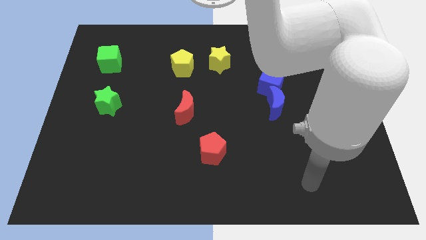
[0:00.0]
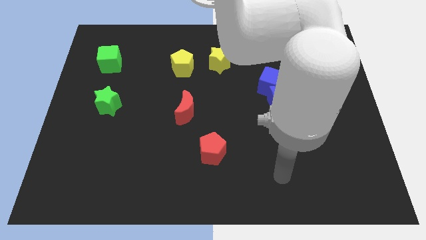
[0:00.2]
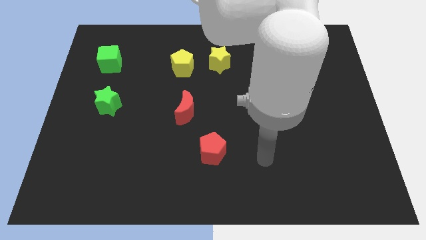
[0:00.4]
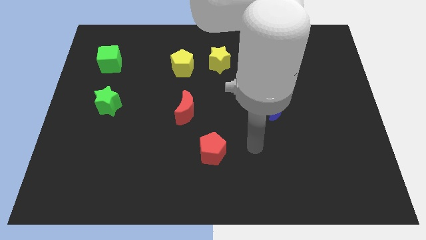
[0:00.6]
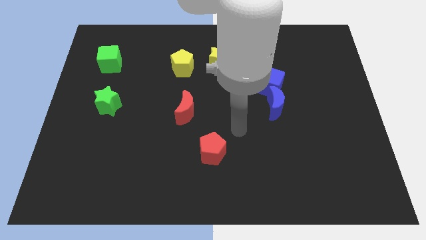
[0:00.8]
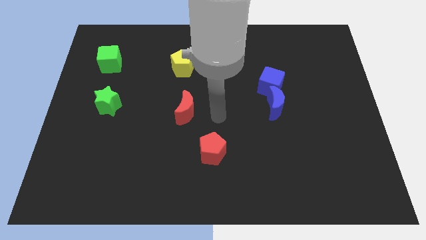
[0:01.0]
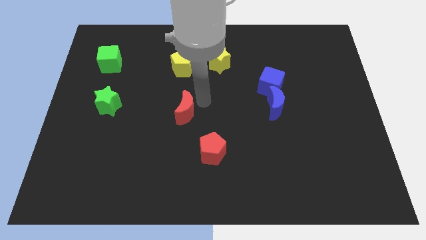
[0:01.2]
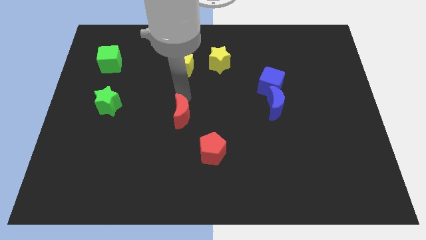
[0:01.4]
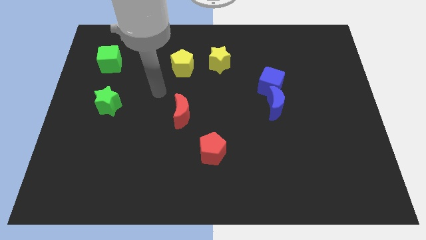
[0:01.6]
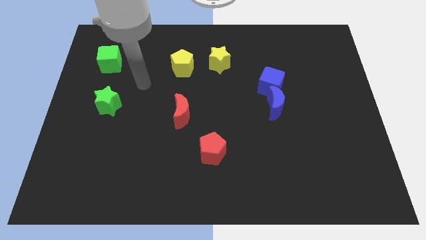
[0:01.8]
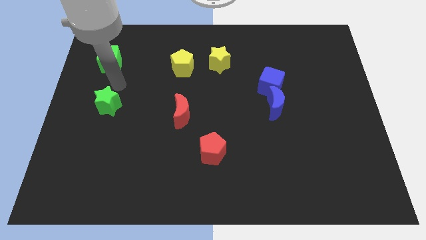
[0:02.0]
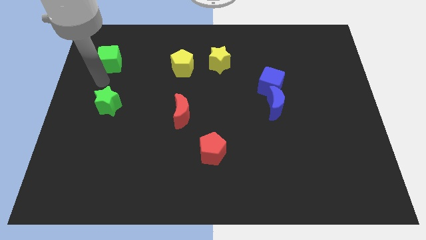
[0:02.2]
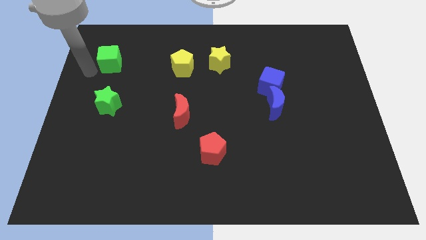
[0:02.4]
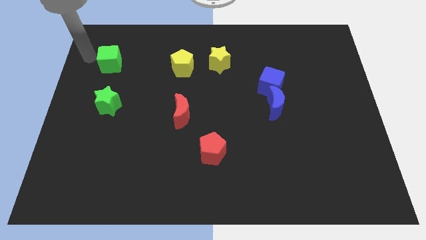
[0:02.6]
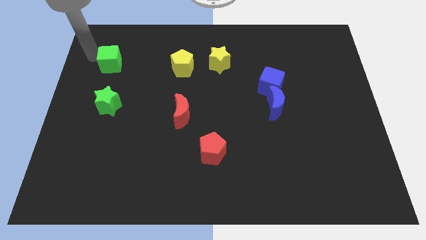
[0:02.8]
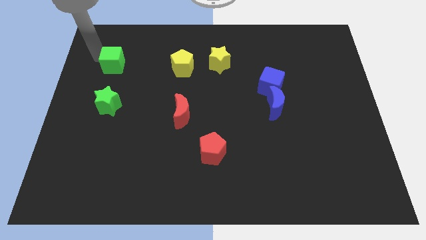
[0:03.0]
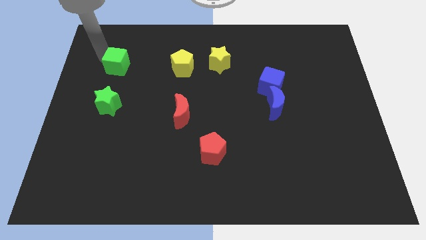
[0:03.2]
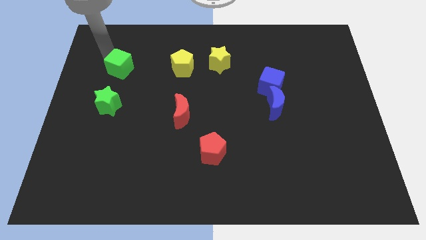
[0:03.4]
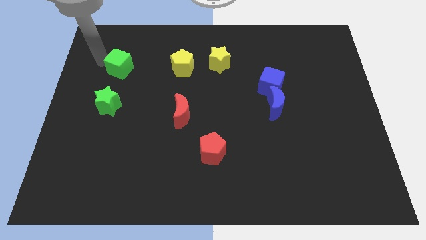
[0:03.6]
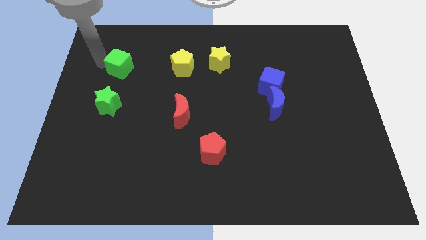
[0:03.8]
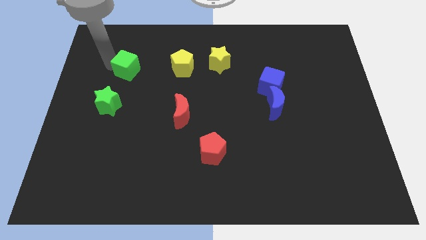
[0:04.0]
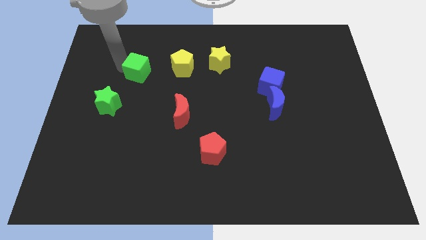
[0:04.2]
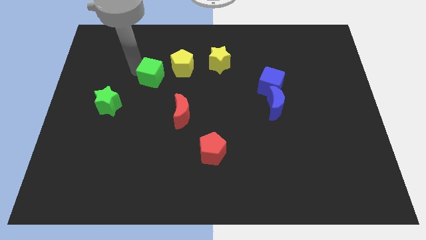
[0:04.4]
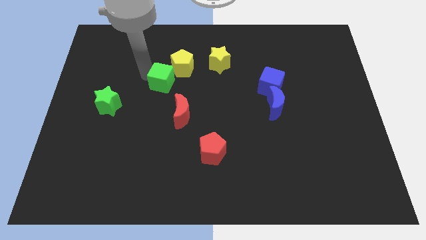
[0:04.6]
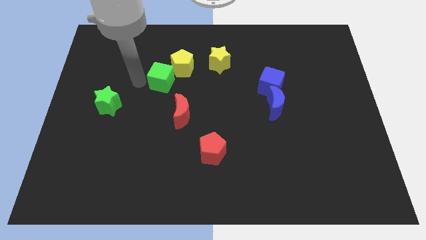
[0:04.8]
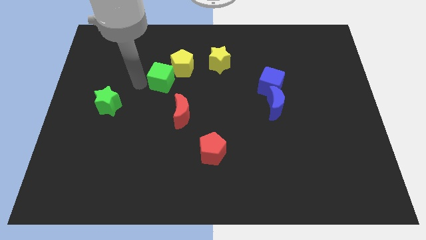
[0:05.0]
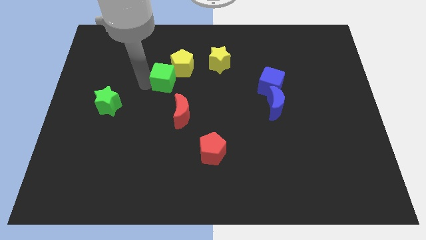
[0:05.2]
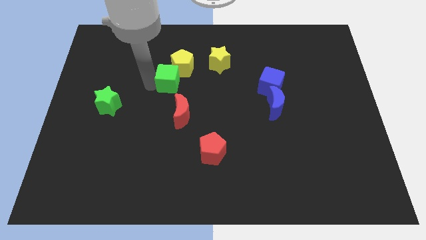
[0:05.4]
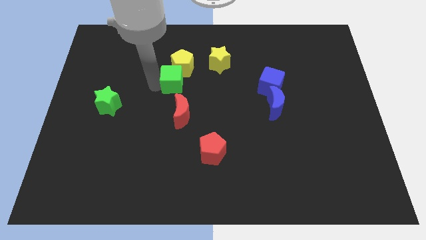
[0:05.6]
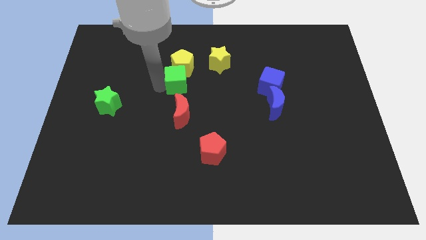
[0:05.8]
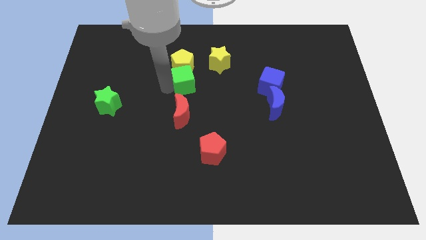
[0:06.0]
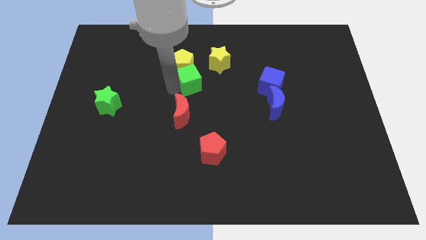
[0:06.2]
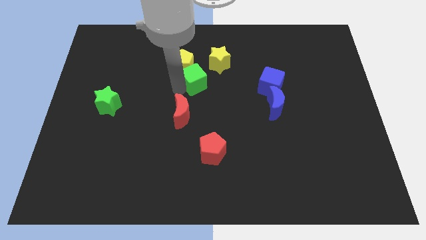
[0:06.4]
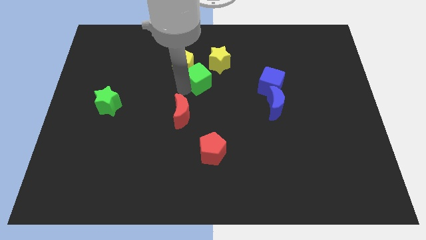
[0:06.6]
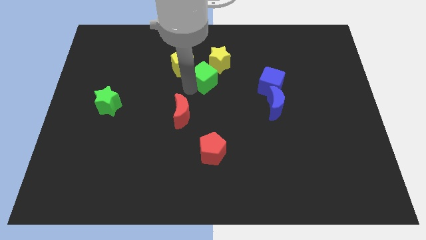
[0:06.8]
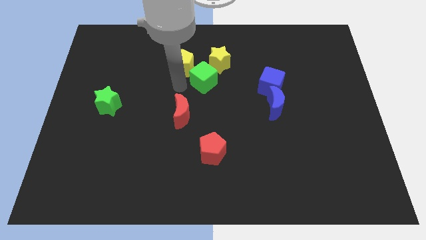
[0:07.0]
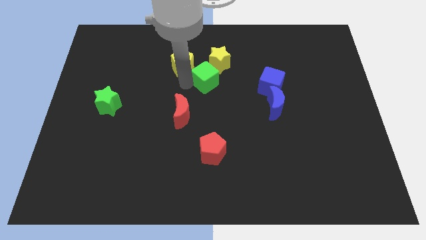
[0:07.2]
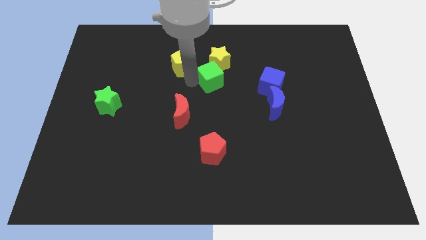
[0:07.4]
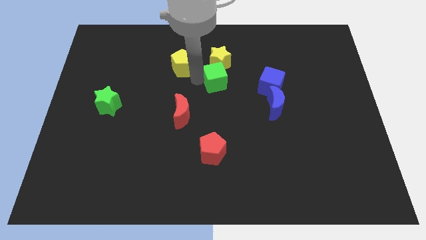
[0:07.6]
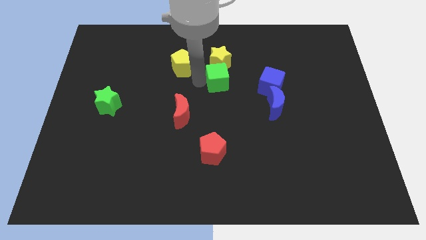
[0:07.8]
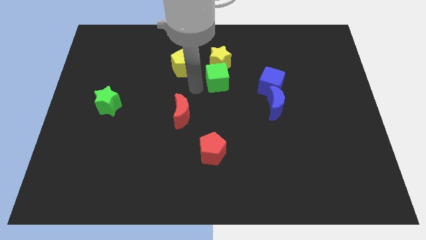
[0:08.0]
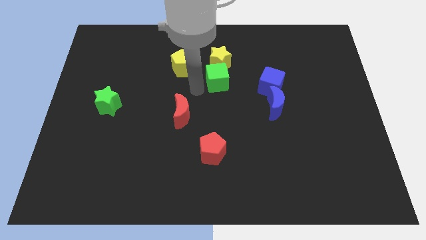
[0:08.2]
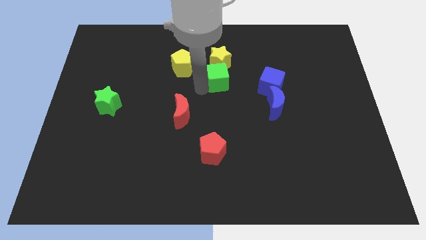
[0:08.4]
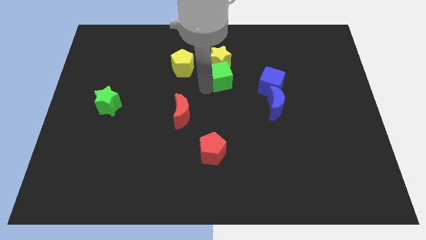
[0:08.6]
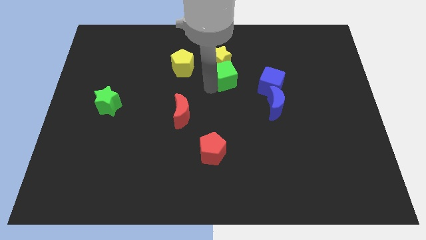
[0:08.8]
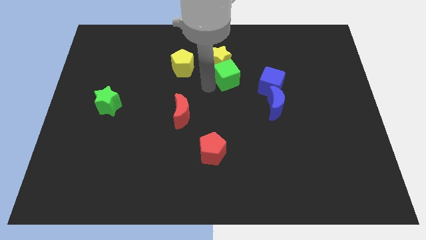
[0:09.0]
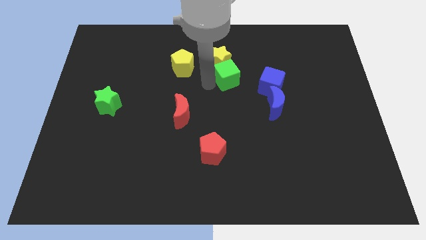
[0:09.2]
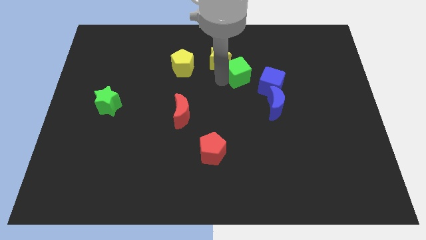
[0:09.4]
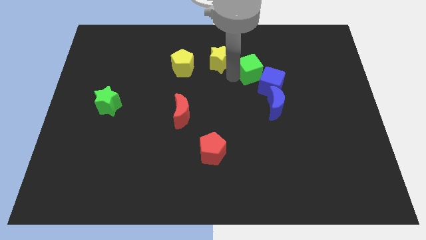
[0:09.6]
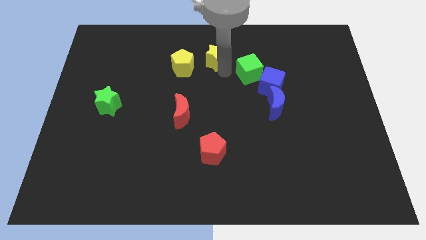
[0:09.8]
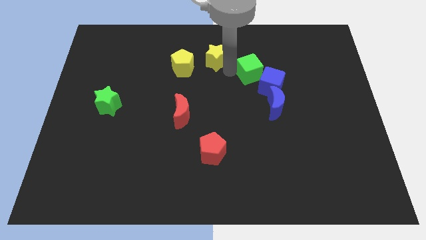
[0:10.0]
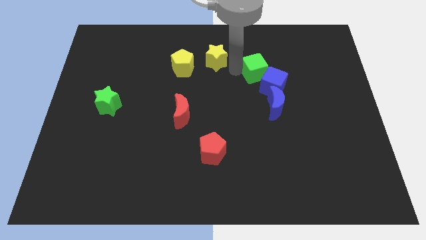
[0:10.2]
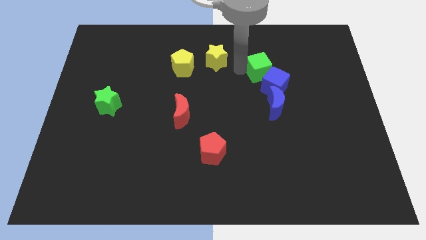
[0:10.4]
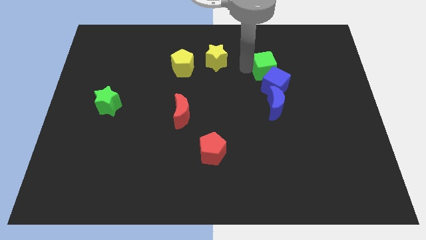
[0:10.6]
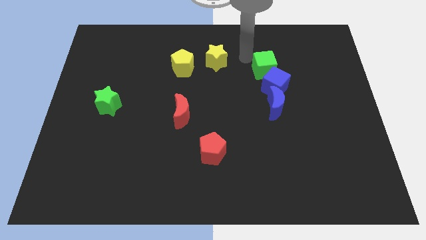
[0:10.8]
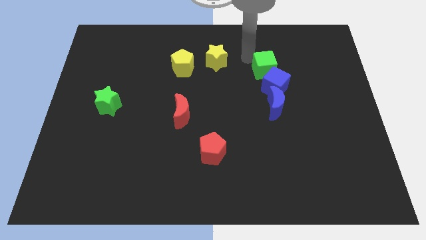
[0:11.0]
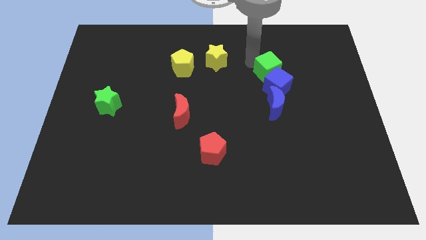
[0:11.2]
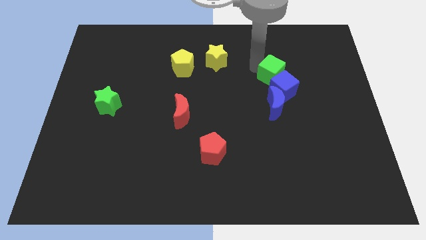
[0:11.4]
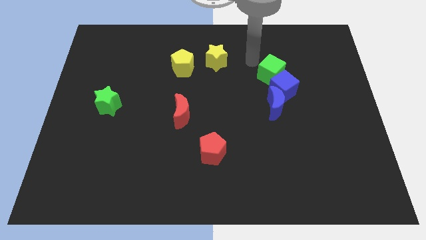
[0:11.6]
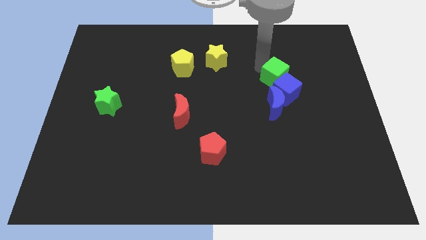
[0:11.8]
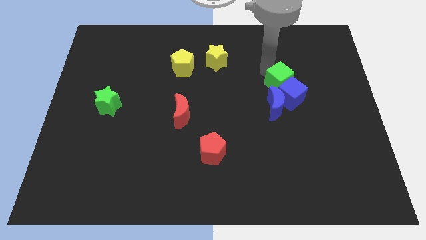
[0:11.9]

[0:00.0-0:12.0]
push the green cube to the top right side of the blue moon
